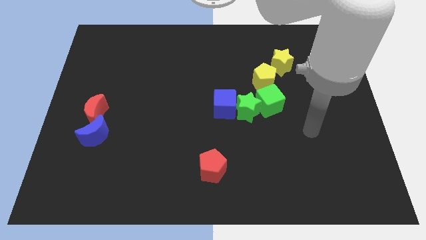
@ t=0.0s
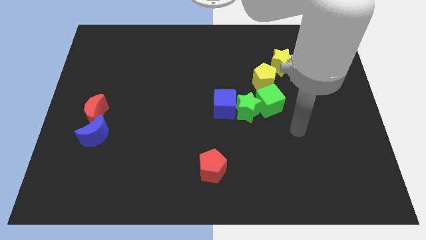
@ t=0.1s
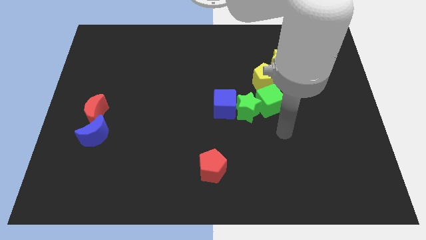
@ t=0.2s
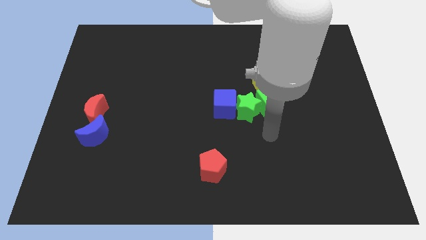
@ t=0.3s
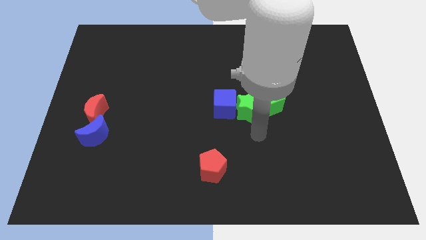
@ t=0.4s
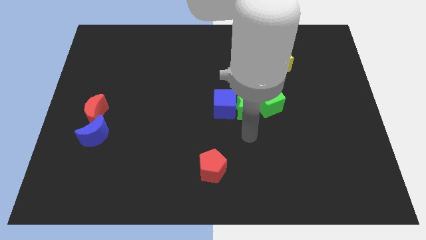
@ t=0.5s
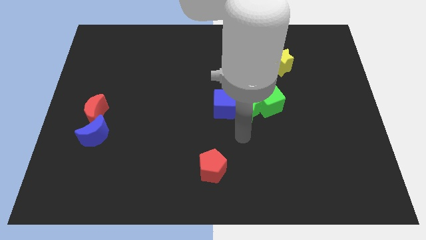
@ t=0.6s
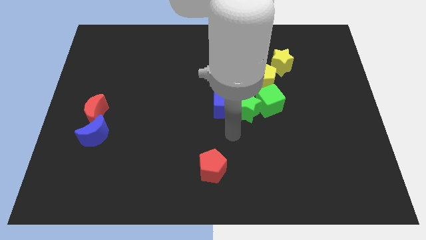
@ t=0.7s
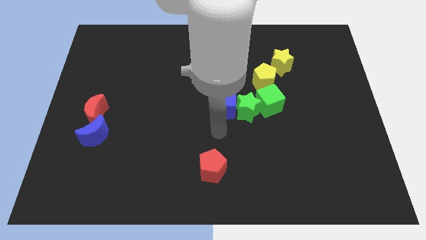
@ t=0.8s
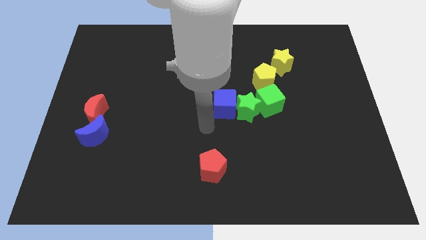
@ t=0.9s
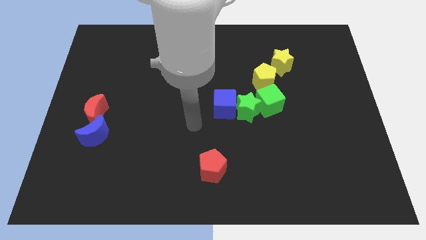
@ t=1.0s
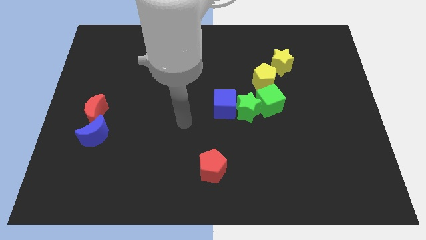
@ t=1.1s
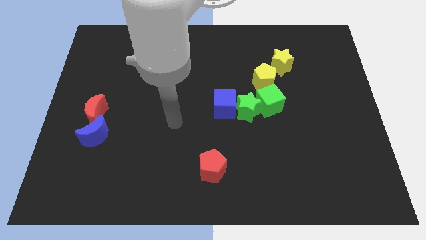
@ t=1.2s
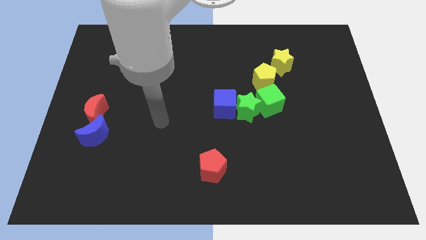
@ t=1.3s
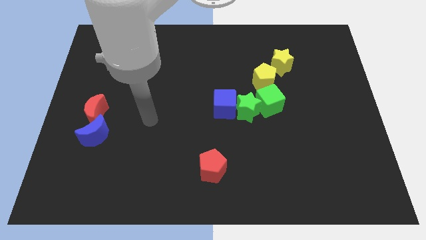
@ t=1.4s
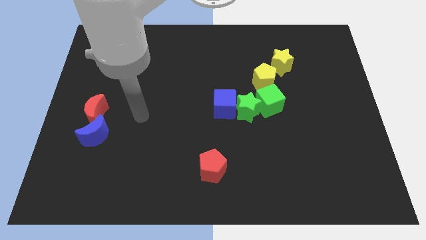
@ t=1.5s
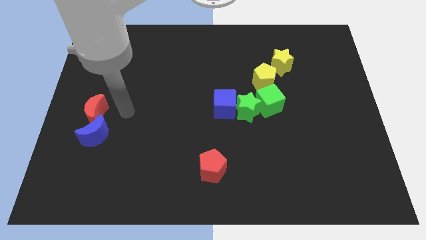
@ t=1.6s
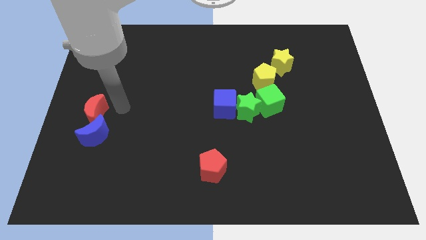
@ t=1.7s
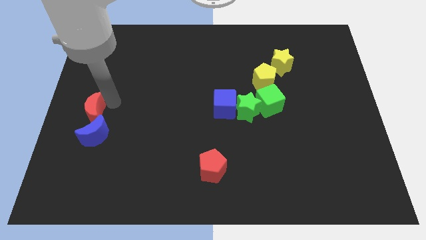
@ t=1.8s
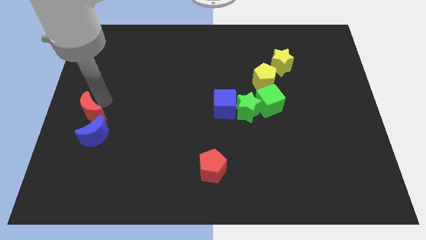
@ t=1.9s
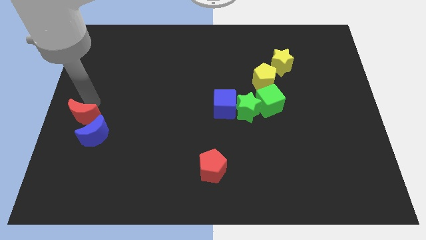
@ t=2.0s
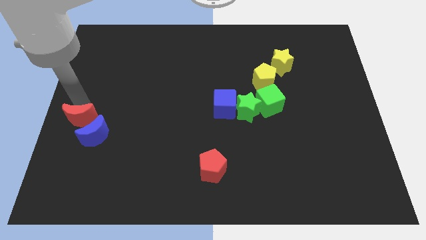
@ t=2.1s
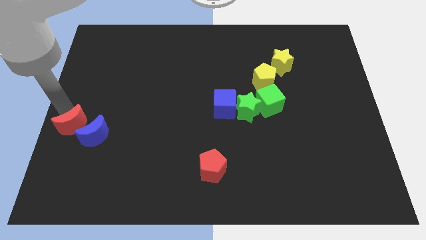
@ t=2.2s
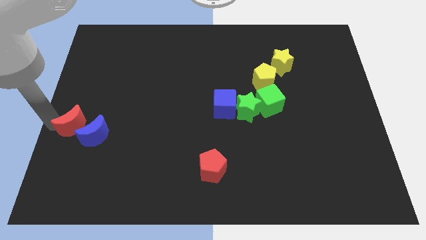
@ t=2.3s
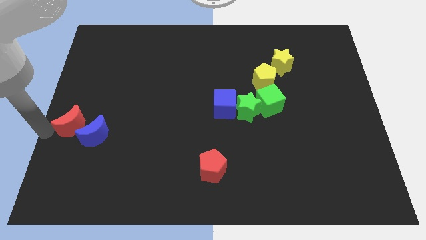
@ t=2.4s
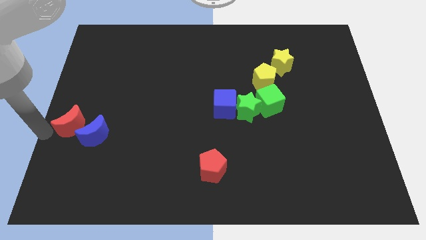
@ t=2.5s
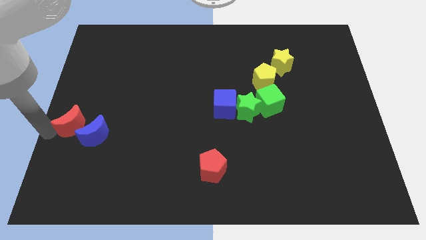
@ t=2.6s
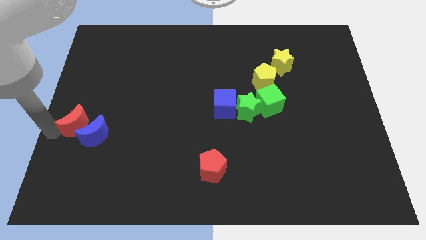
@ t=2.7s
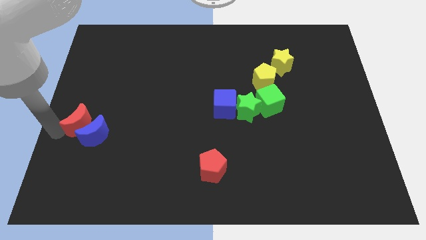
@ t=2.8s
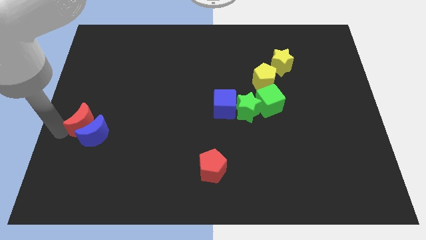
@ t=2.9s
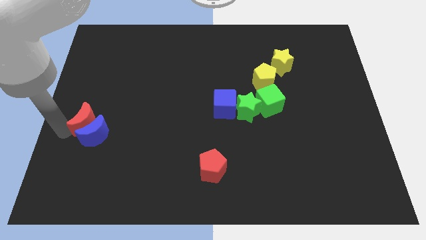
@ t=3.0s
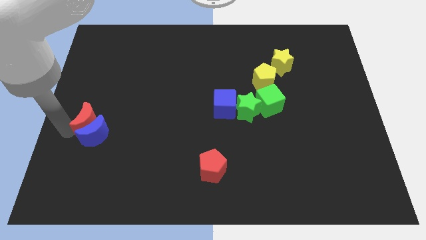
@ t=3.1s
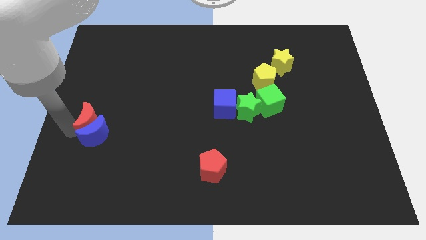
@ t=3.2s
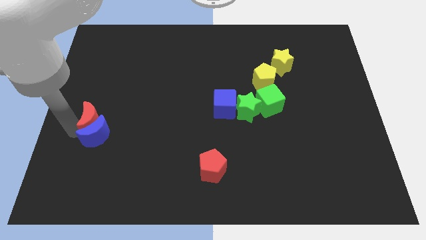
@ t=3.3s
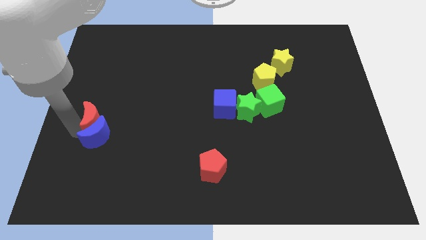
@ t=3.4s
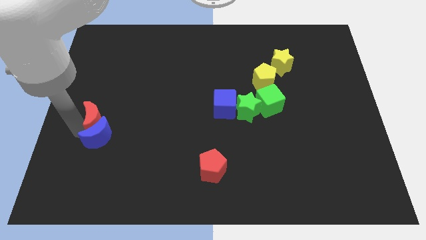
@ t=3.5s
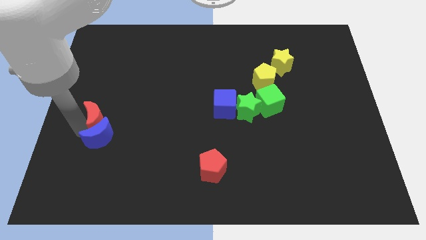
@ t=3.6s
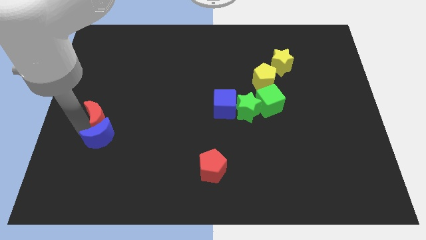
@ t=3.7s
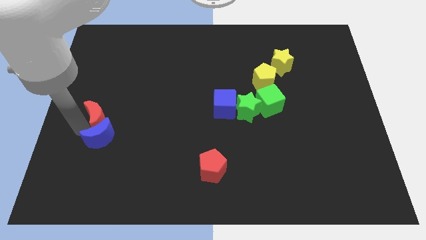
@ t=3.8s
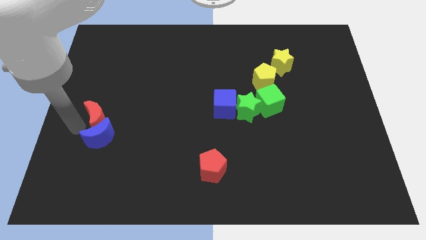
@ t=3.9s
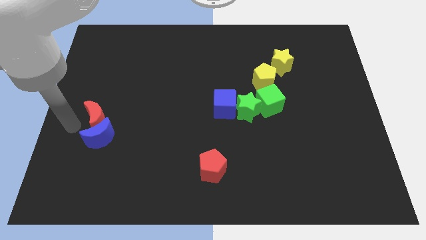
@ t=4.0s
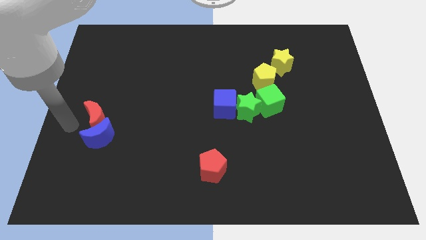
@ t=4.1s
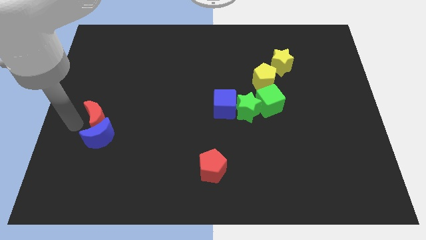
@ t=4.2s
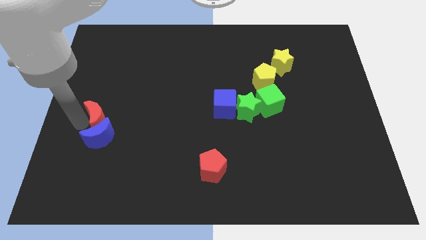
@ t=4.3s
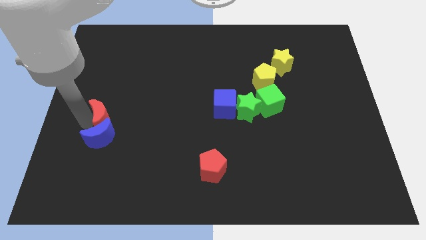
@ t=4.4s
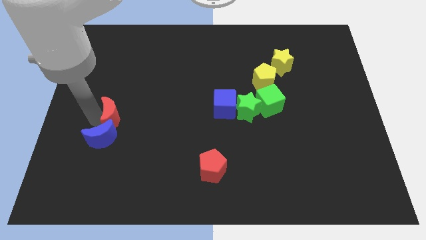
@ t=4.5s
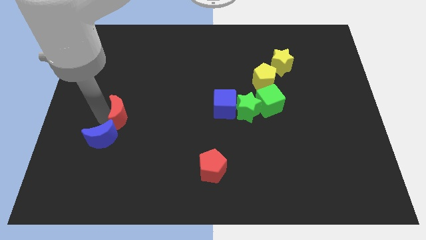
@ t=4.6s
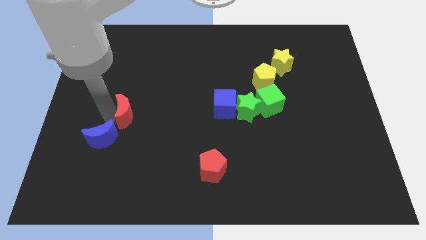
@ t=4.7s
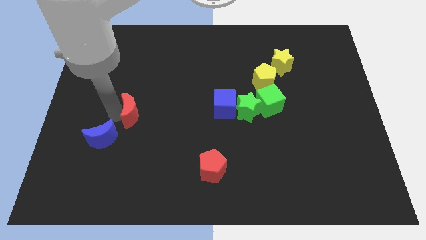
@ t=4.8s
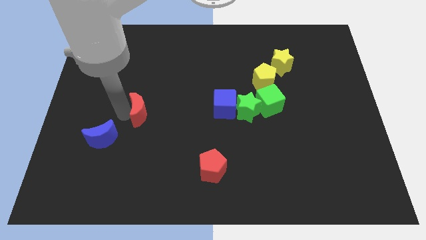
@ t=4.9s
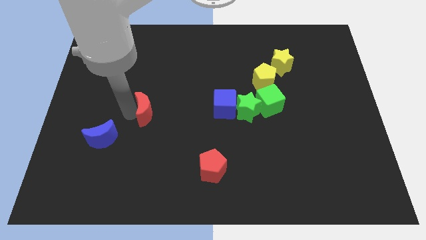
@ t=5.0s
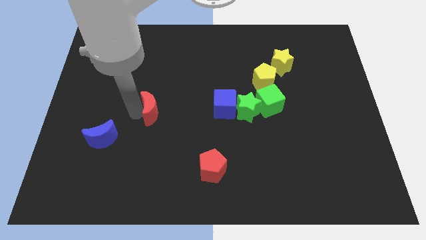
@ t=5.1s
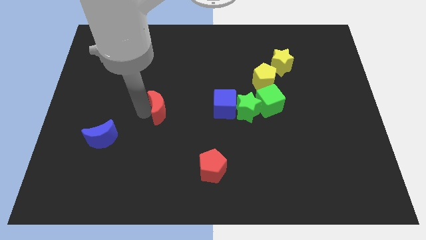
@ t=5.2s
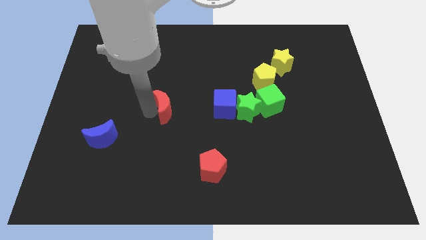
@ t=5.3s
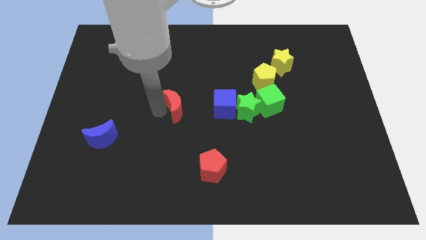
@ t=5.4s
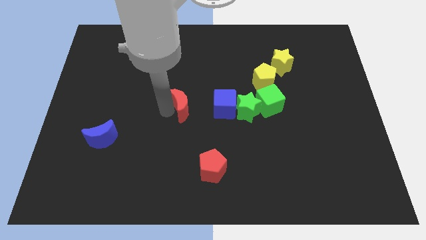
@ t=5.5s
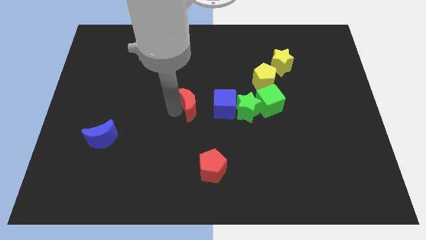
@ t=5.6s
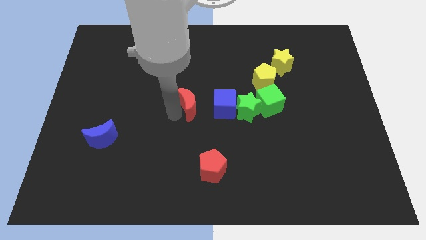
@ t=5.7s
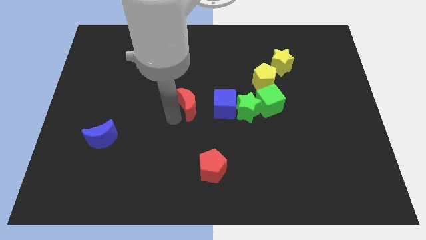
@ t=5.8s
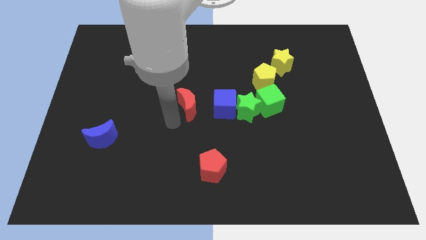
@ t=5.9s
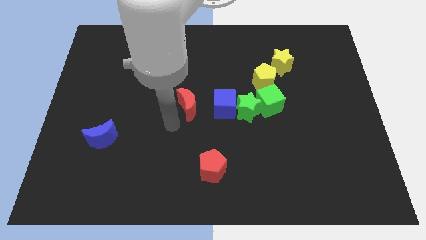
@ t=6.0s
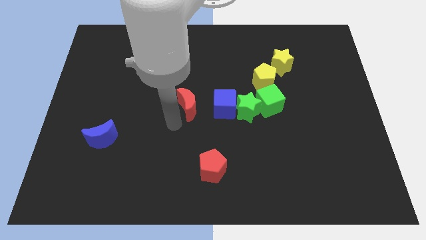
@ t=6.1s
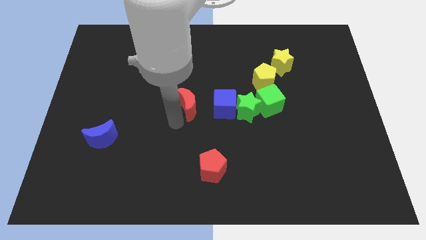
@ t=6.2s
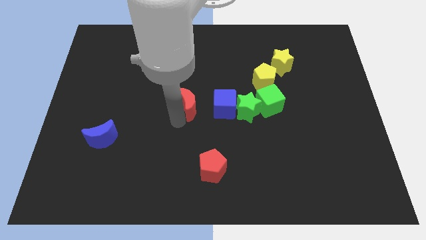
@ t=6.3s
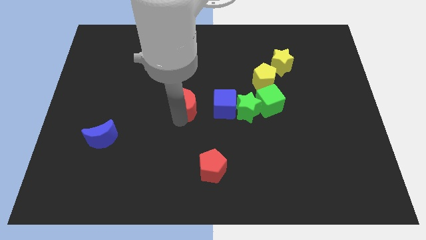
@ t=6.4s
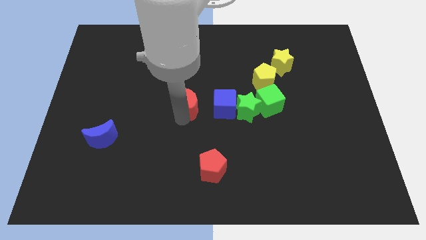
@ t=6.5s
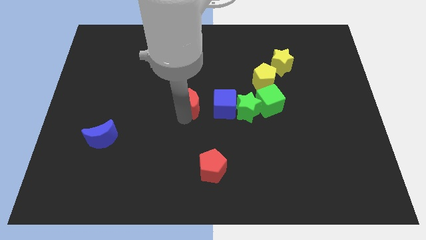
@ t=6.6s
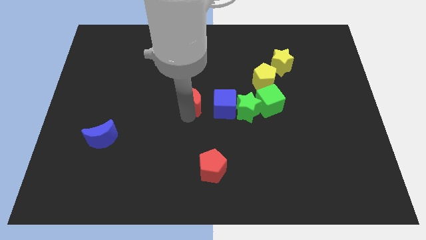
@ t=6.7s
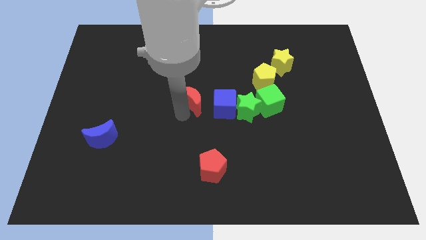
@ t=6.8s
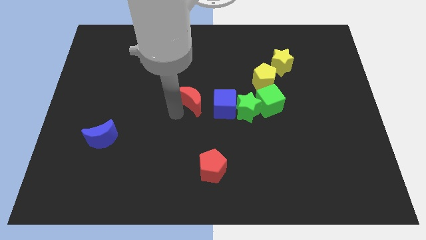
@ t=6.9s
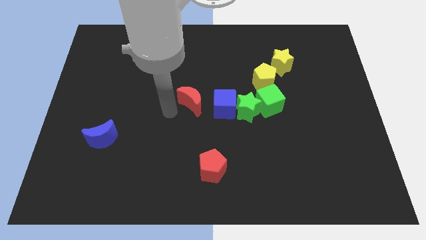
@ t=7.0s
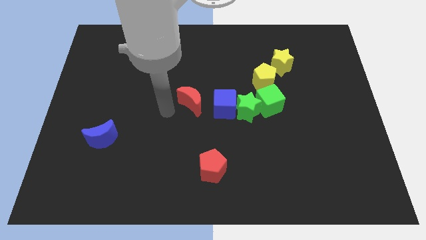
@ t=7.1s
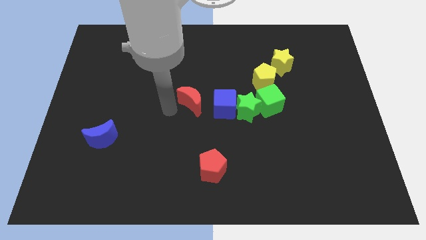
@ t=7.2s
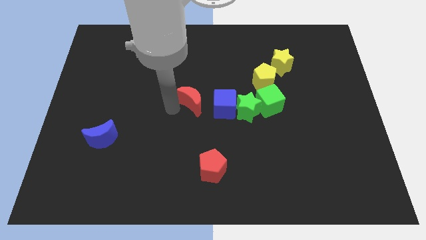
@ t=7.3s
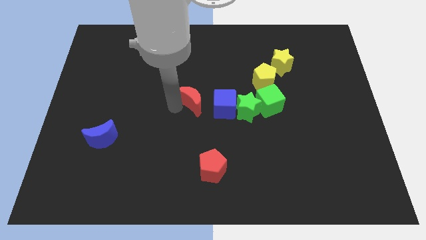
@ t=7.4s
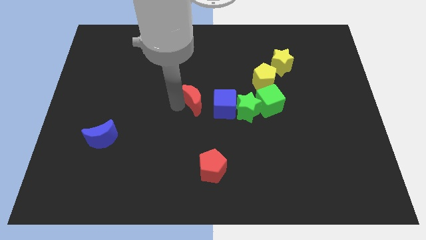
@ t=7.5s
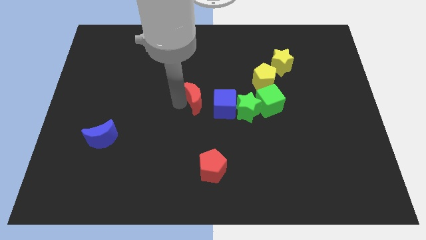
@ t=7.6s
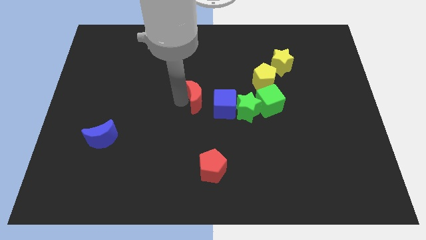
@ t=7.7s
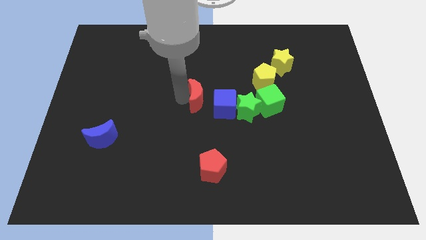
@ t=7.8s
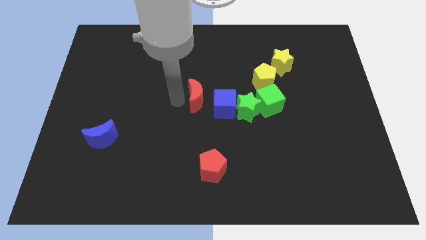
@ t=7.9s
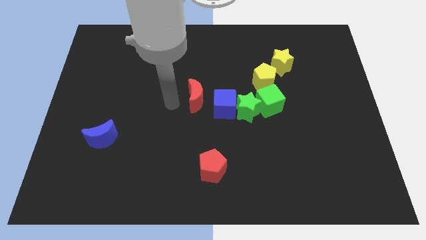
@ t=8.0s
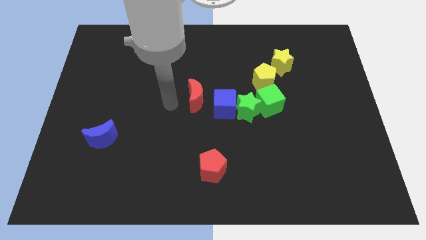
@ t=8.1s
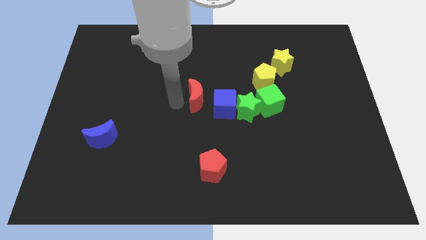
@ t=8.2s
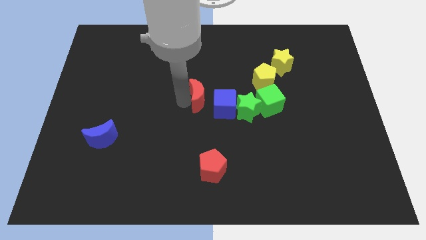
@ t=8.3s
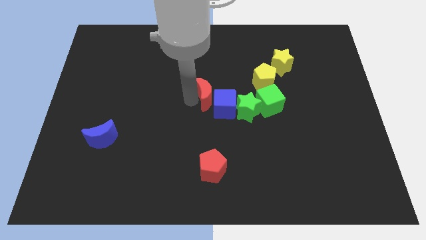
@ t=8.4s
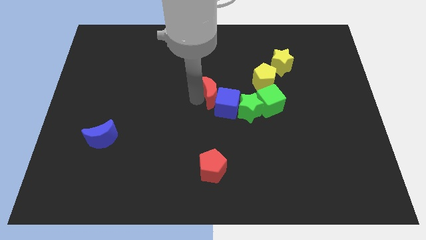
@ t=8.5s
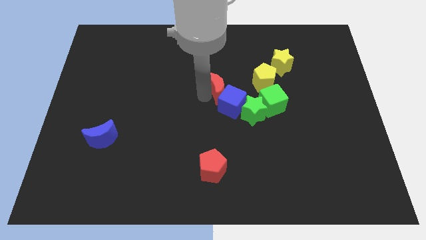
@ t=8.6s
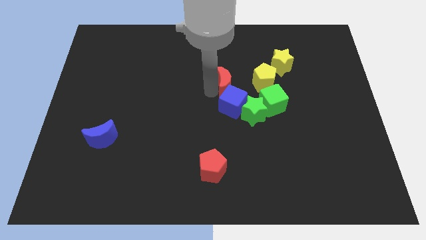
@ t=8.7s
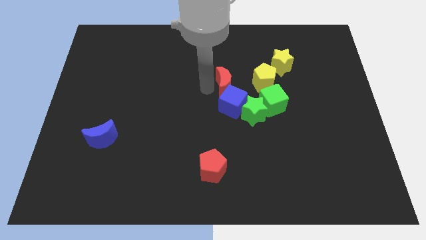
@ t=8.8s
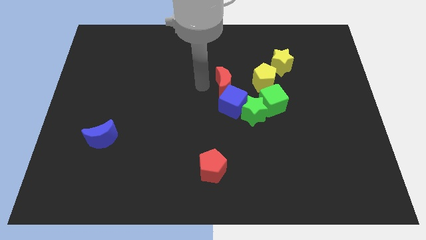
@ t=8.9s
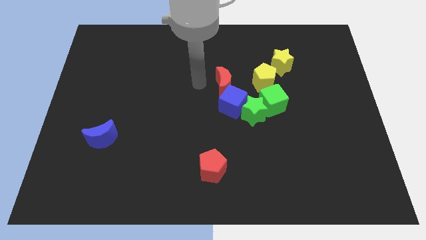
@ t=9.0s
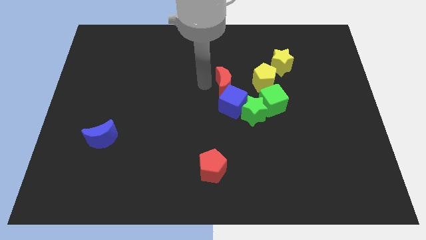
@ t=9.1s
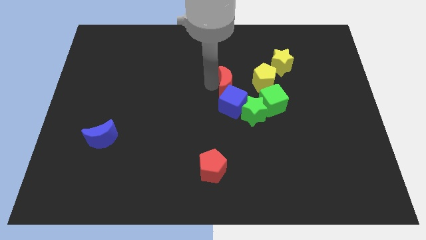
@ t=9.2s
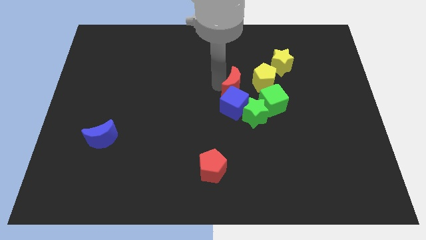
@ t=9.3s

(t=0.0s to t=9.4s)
put the red moon diagonally up and to the right of the blue cube
